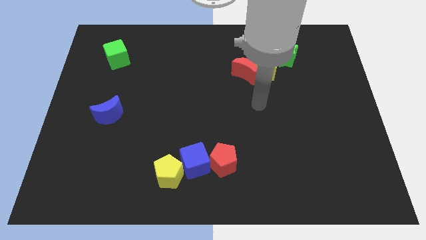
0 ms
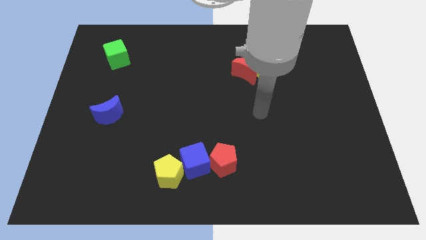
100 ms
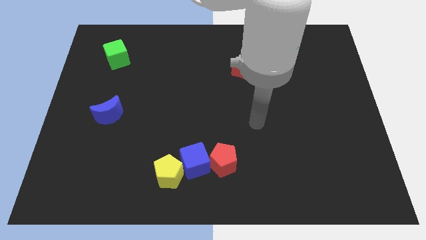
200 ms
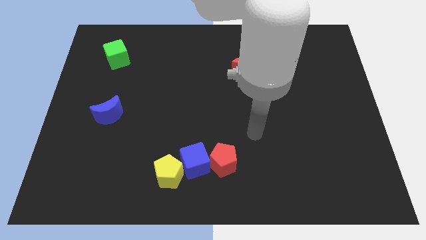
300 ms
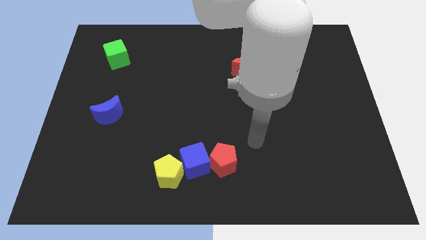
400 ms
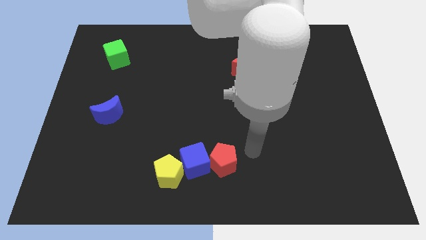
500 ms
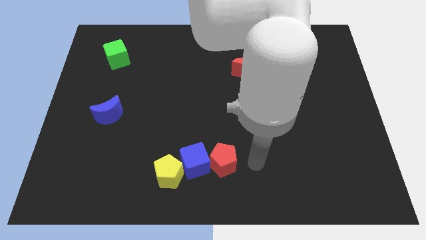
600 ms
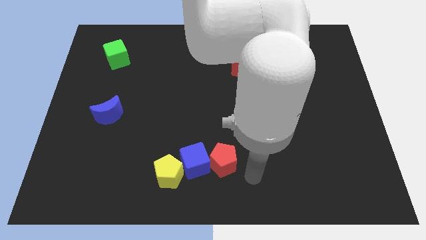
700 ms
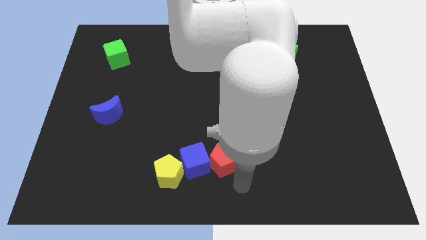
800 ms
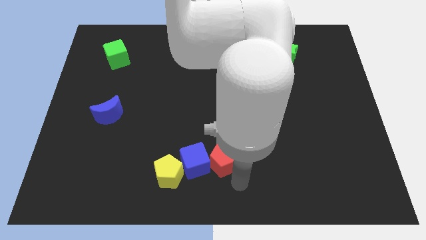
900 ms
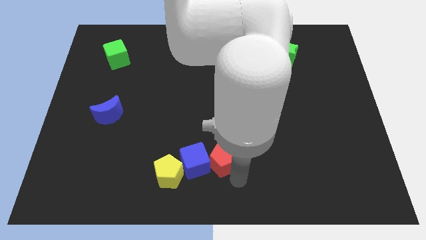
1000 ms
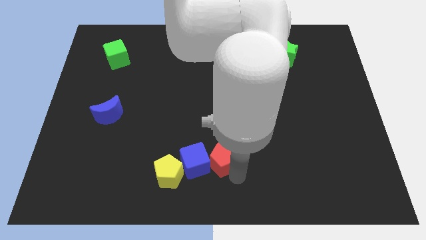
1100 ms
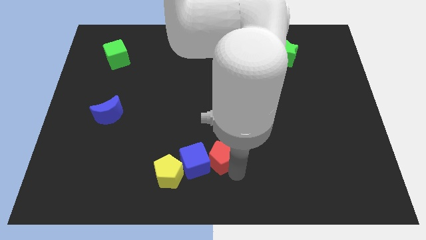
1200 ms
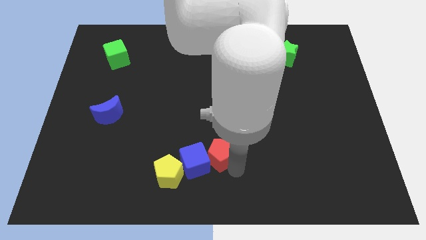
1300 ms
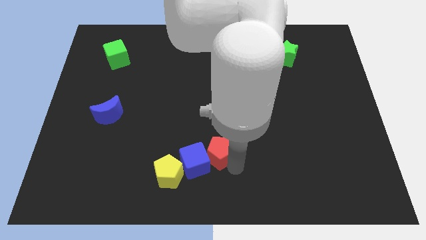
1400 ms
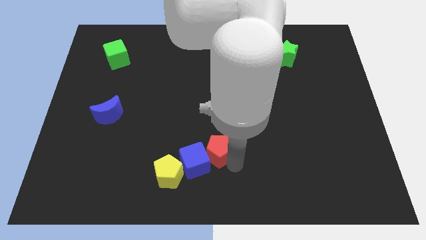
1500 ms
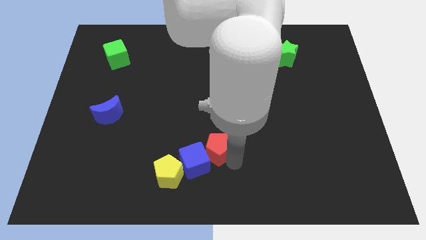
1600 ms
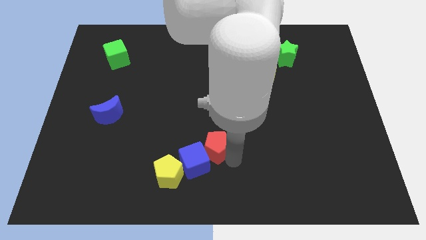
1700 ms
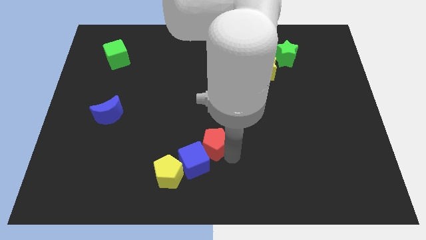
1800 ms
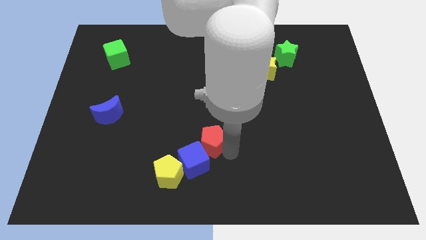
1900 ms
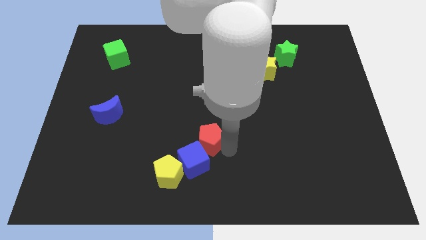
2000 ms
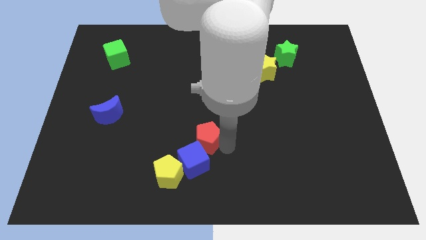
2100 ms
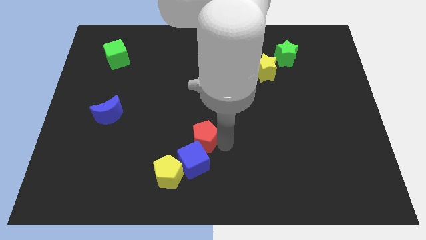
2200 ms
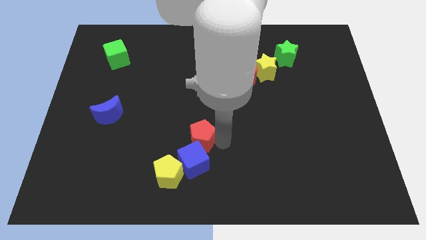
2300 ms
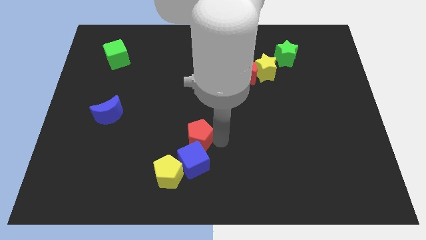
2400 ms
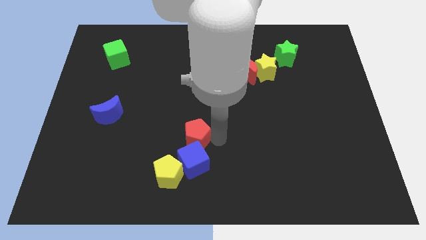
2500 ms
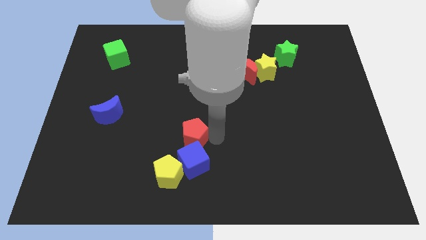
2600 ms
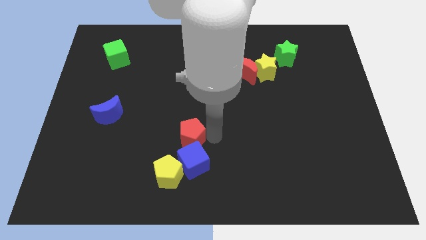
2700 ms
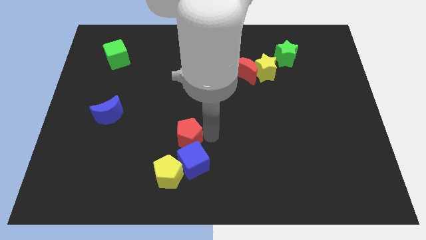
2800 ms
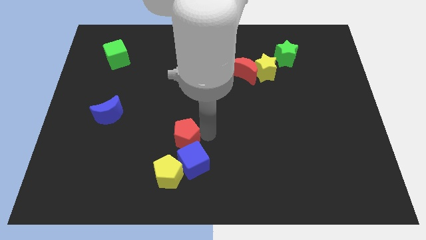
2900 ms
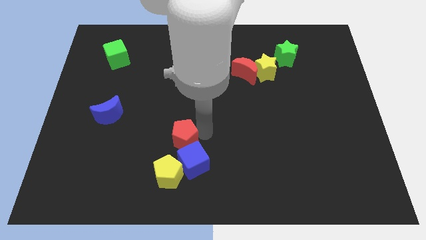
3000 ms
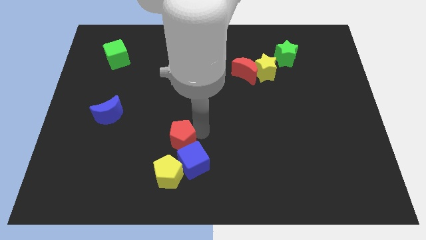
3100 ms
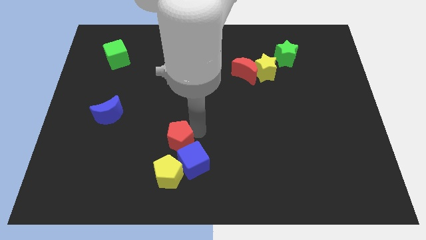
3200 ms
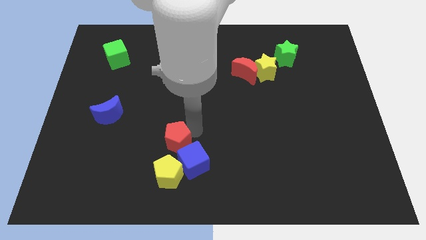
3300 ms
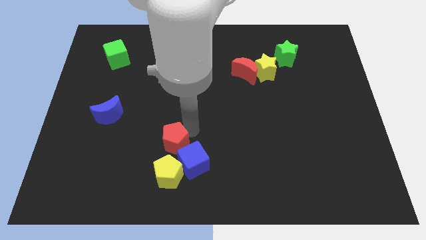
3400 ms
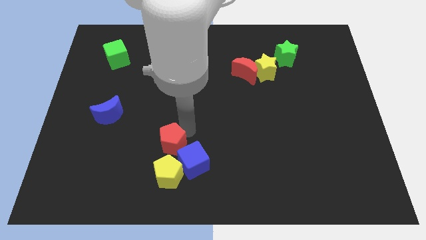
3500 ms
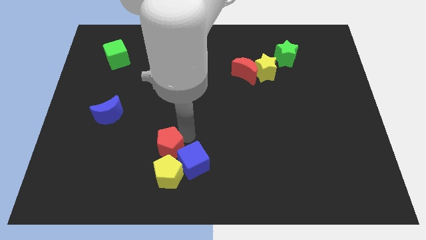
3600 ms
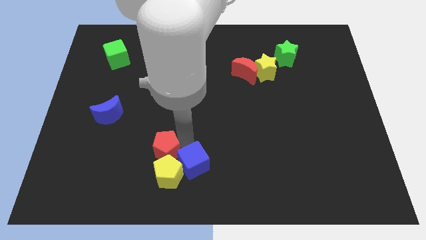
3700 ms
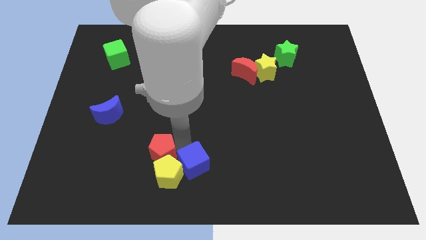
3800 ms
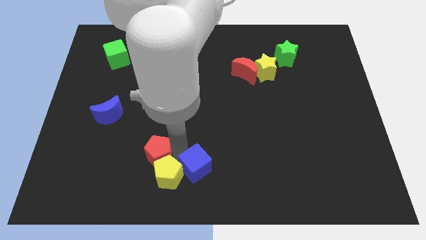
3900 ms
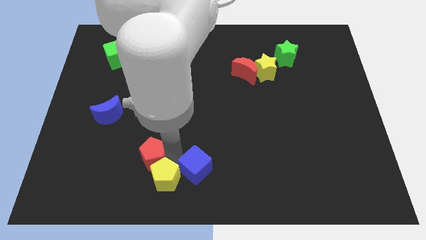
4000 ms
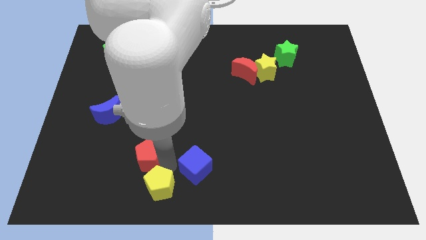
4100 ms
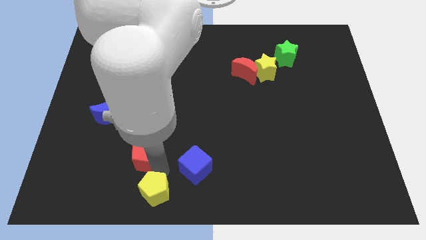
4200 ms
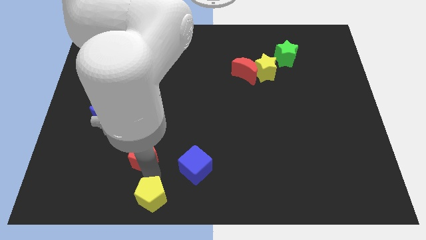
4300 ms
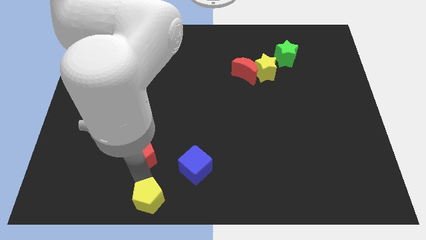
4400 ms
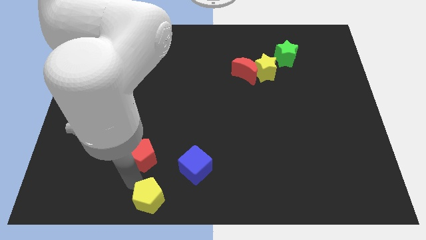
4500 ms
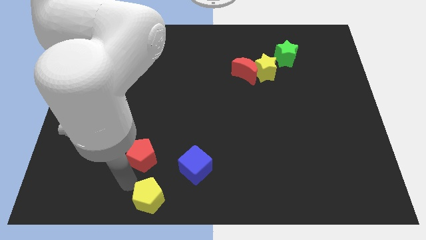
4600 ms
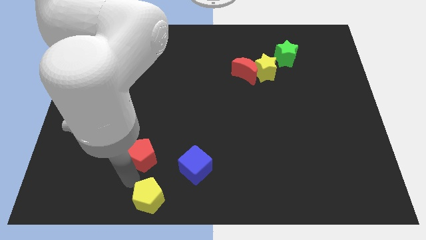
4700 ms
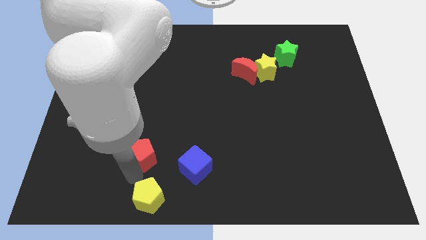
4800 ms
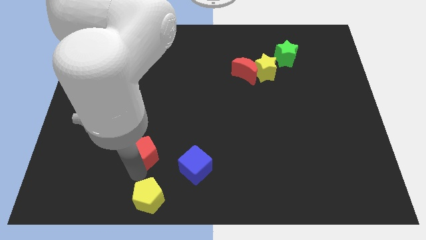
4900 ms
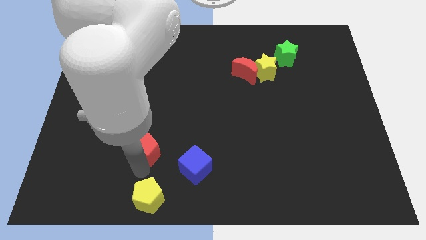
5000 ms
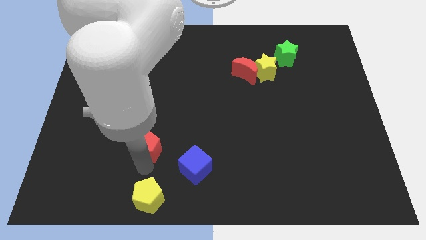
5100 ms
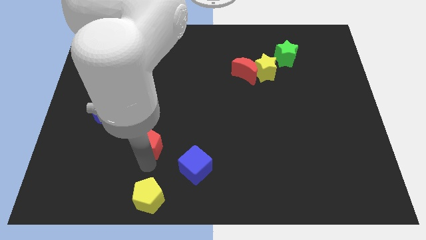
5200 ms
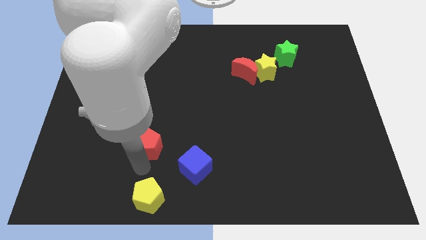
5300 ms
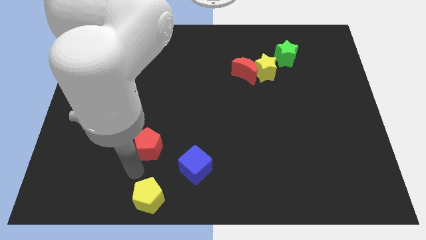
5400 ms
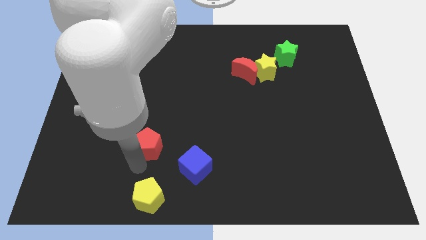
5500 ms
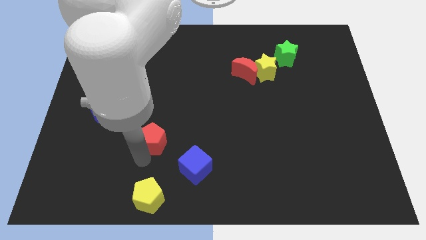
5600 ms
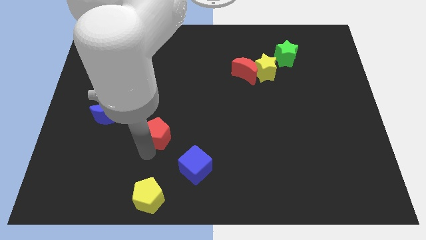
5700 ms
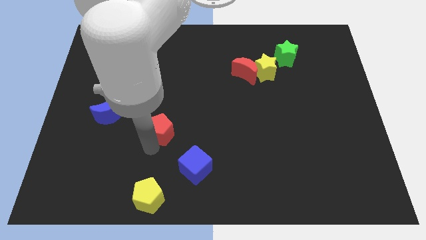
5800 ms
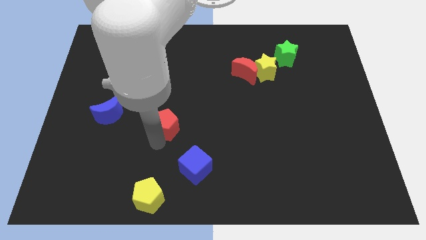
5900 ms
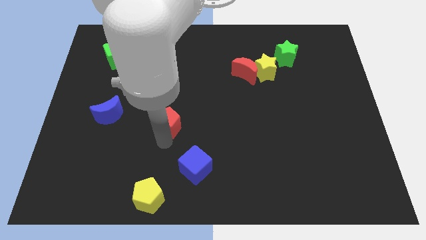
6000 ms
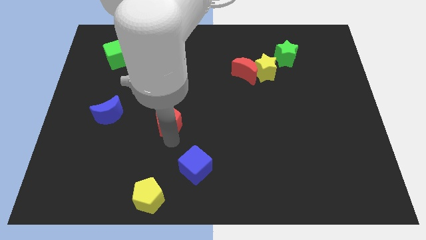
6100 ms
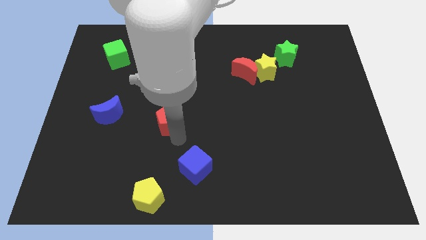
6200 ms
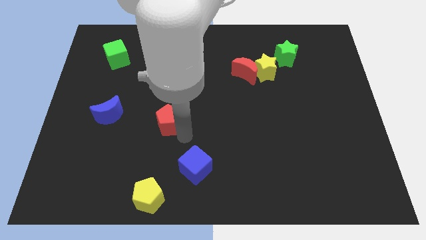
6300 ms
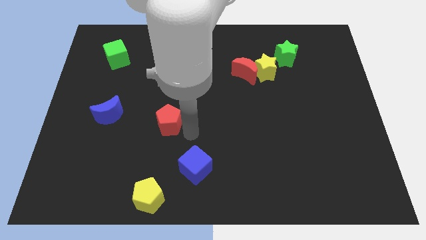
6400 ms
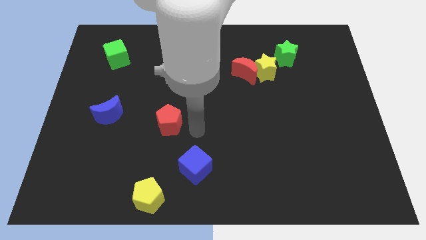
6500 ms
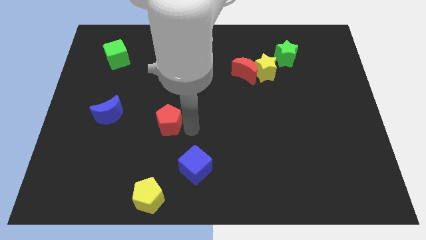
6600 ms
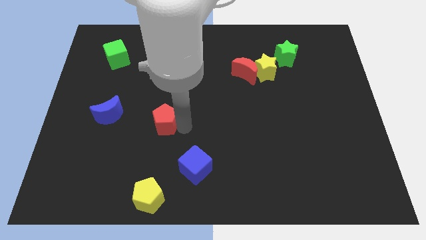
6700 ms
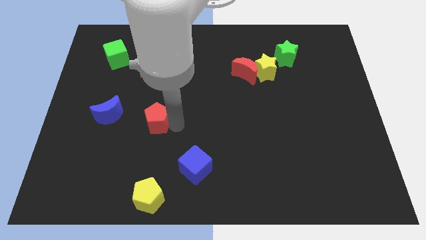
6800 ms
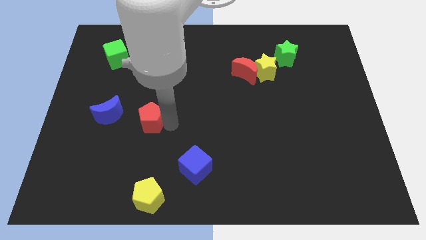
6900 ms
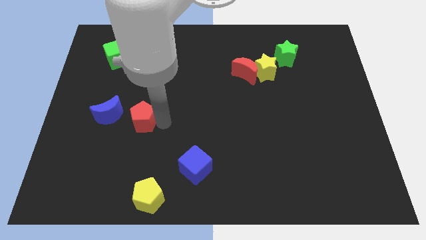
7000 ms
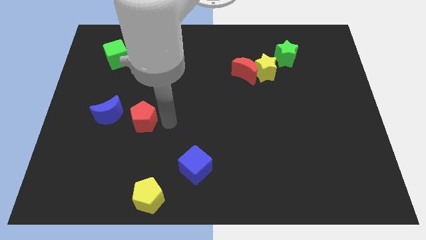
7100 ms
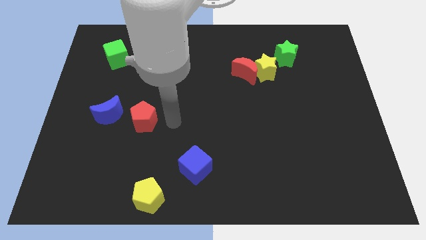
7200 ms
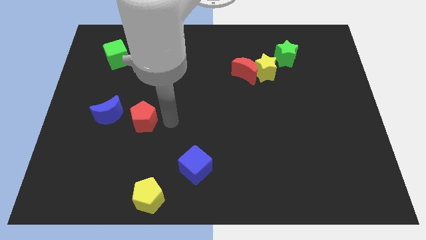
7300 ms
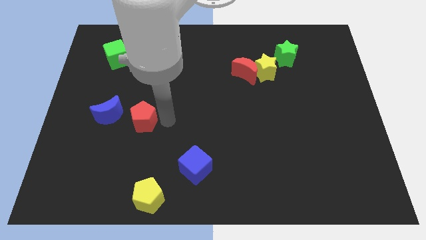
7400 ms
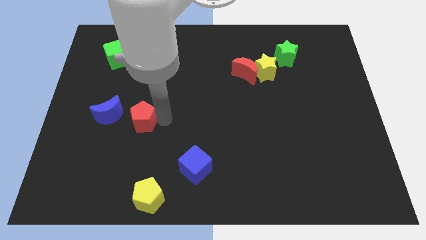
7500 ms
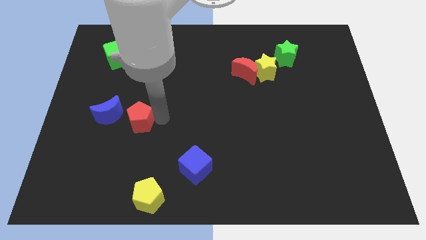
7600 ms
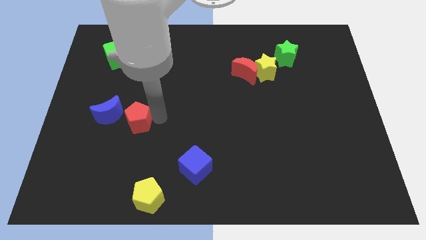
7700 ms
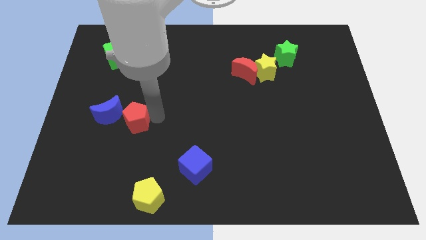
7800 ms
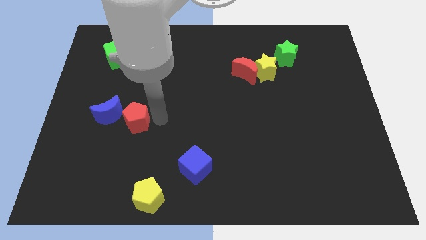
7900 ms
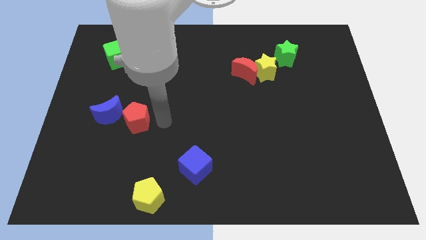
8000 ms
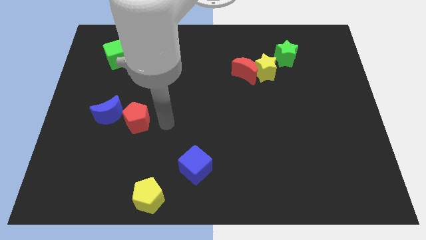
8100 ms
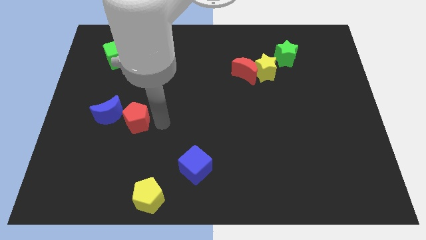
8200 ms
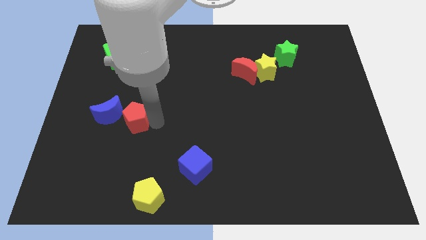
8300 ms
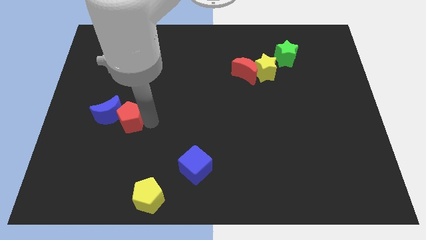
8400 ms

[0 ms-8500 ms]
put the red pentagon next to the blue moon
